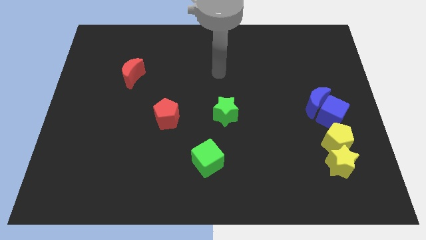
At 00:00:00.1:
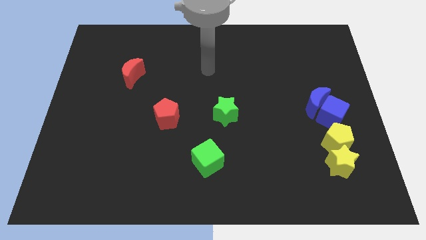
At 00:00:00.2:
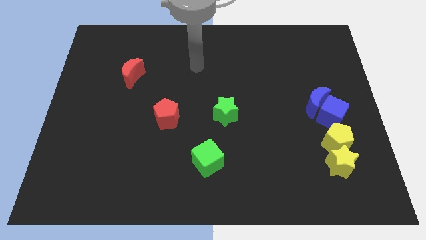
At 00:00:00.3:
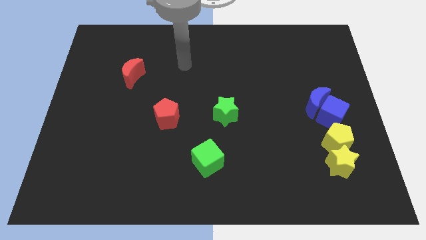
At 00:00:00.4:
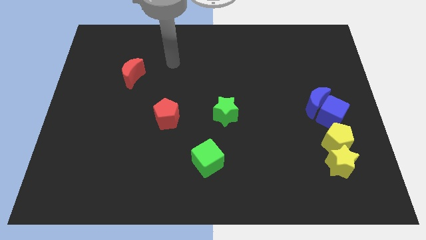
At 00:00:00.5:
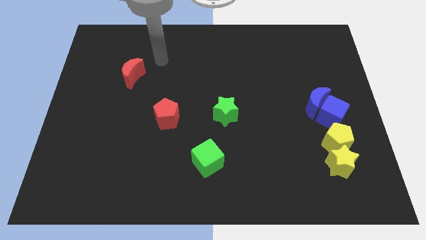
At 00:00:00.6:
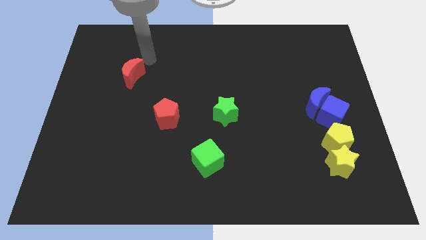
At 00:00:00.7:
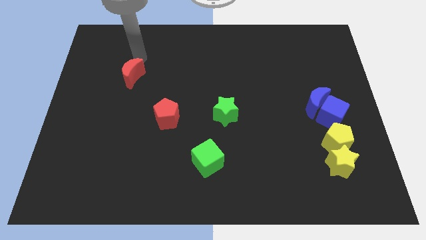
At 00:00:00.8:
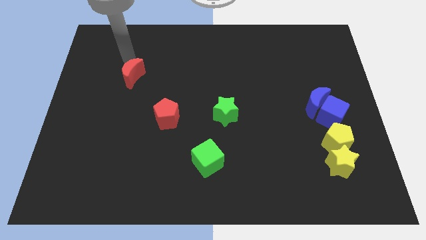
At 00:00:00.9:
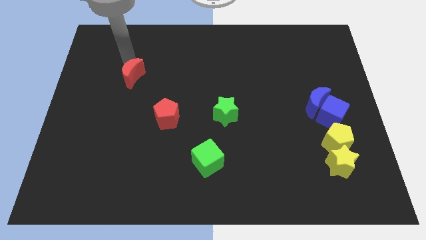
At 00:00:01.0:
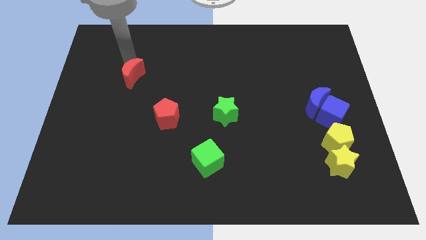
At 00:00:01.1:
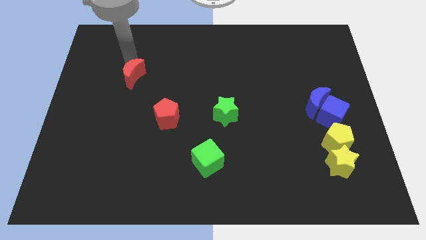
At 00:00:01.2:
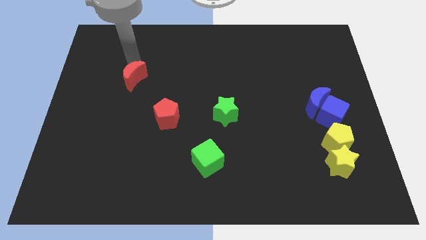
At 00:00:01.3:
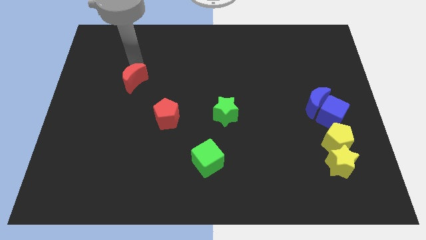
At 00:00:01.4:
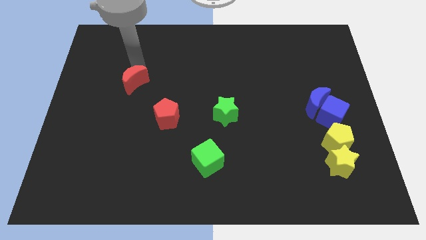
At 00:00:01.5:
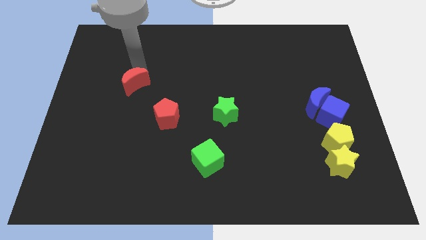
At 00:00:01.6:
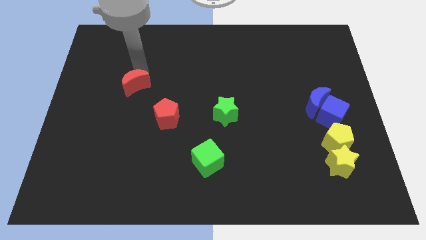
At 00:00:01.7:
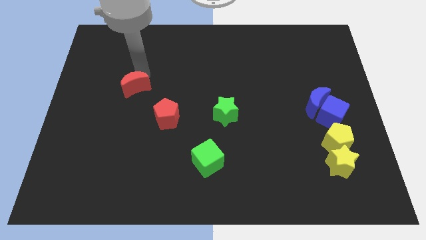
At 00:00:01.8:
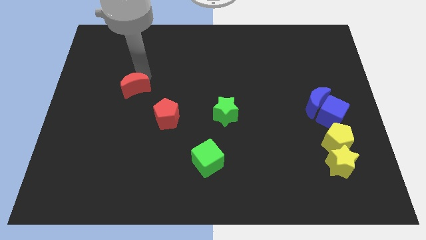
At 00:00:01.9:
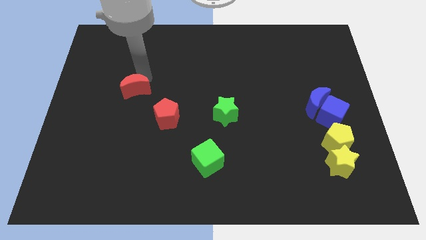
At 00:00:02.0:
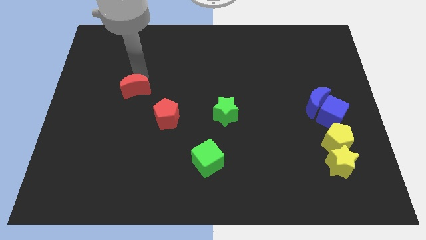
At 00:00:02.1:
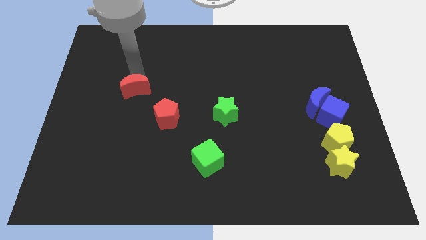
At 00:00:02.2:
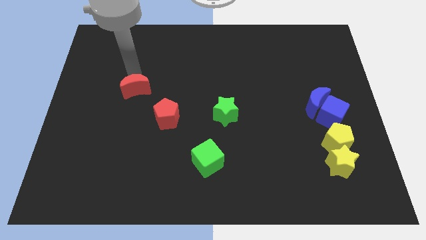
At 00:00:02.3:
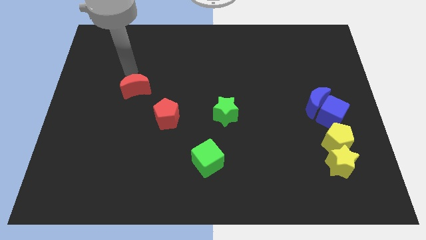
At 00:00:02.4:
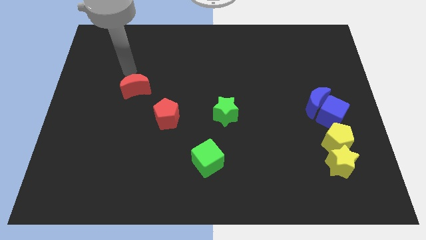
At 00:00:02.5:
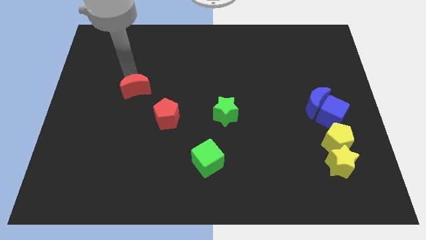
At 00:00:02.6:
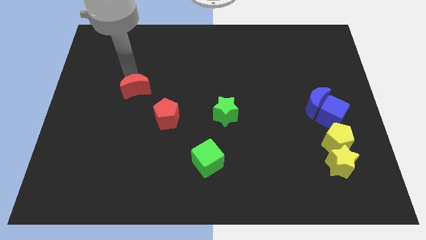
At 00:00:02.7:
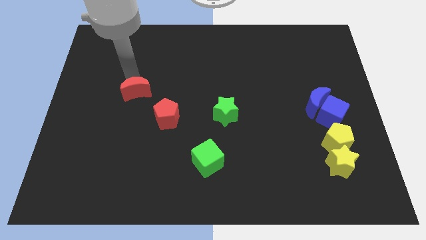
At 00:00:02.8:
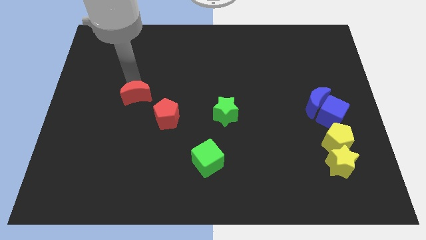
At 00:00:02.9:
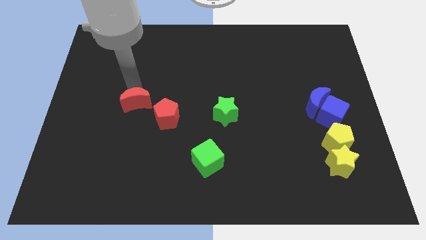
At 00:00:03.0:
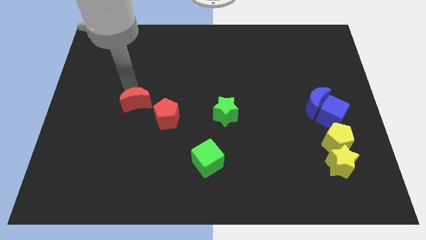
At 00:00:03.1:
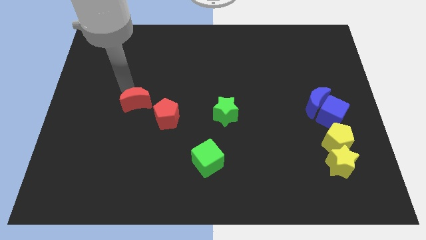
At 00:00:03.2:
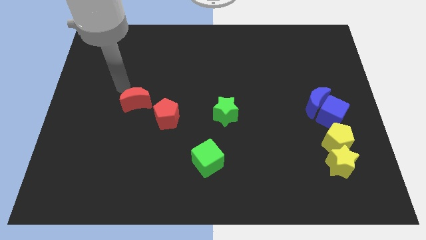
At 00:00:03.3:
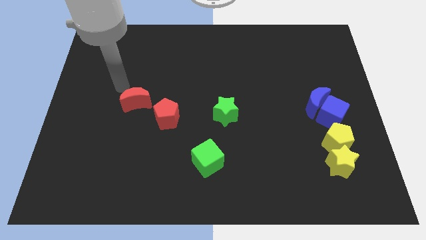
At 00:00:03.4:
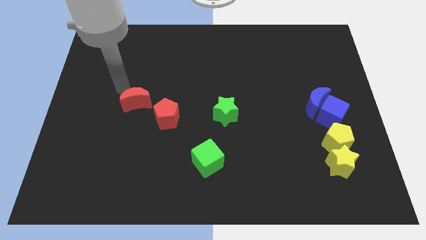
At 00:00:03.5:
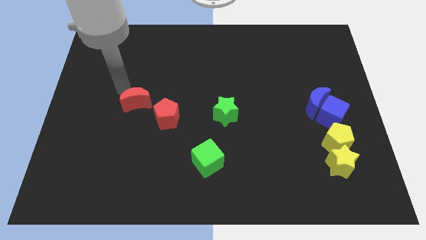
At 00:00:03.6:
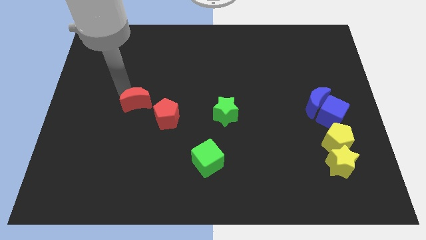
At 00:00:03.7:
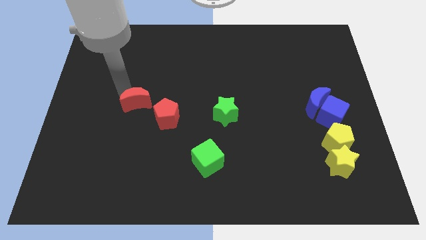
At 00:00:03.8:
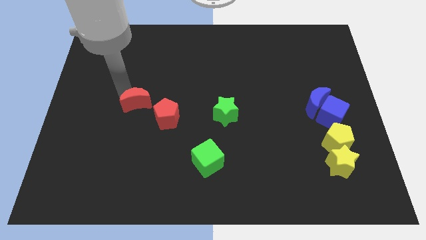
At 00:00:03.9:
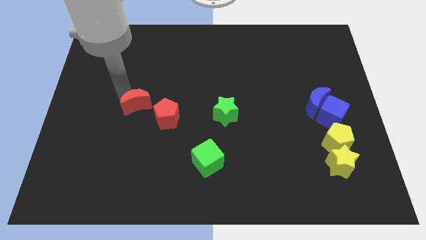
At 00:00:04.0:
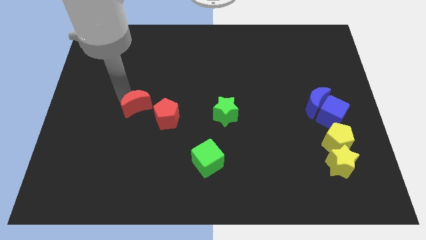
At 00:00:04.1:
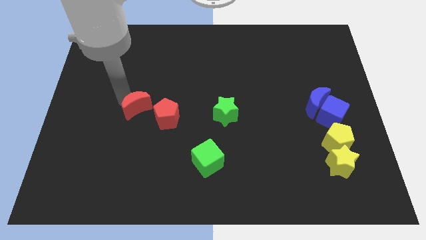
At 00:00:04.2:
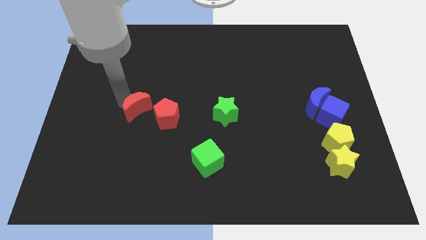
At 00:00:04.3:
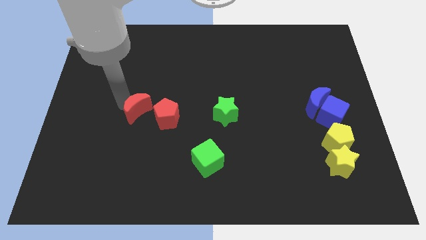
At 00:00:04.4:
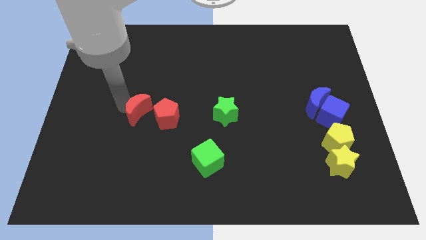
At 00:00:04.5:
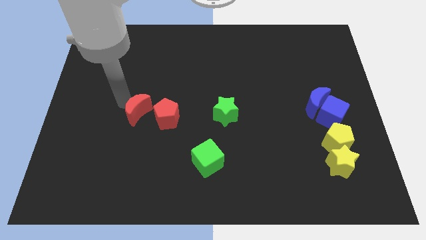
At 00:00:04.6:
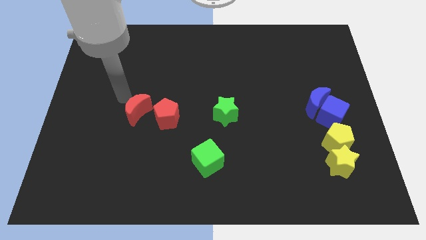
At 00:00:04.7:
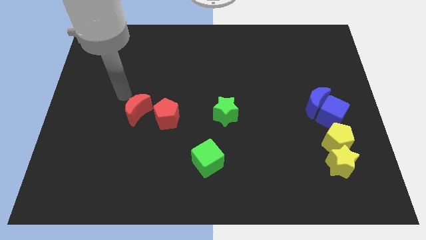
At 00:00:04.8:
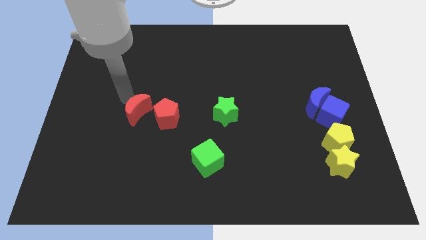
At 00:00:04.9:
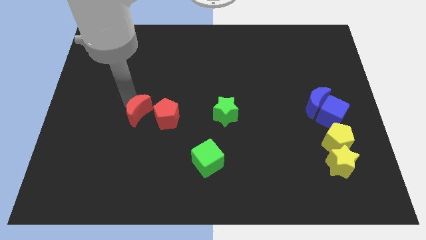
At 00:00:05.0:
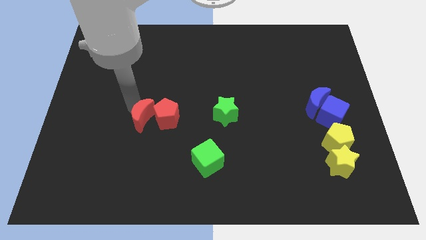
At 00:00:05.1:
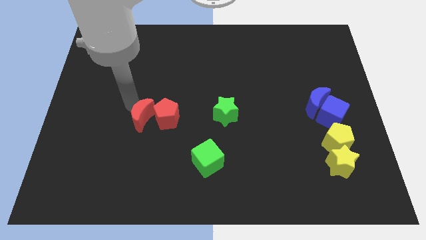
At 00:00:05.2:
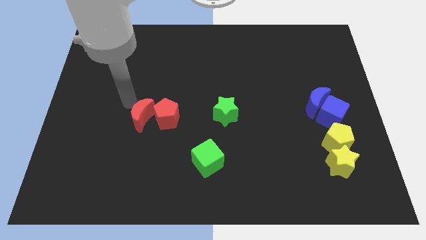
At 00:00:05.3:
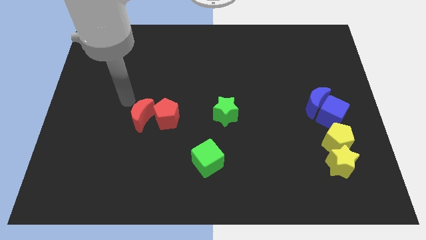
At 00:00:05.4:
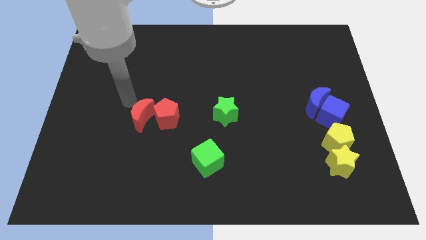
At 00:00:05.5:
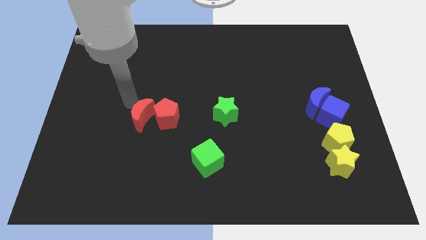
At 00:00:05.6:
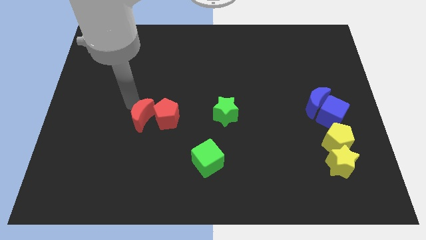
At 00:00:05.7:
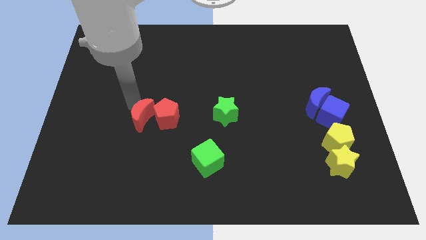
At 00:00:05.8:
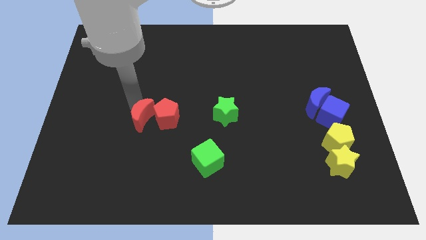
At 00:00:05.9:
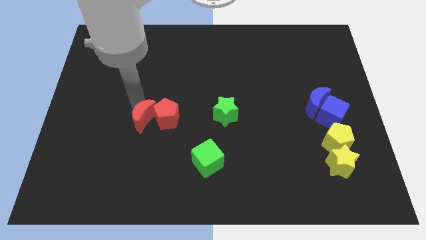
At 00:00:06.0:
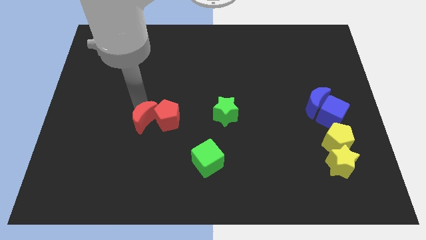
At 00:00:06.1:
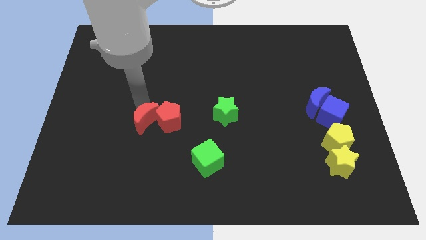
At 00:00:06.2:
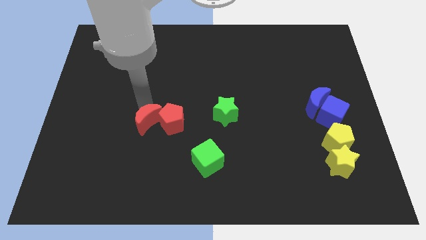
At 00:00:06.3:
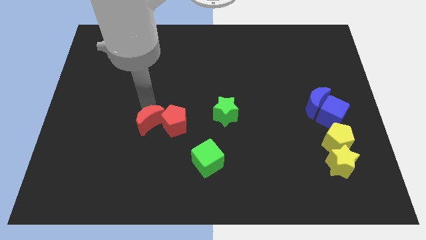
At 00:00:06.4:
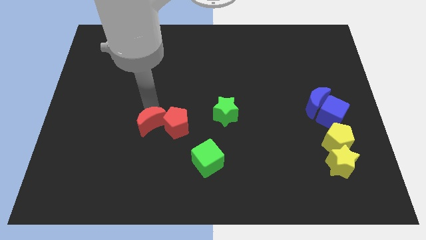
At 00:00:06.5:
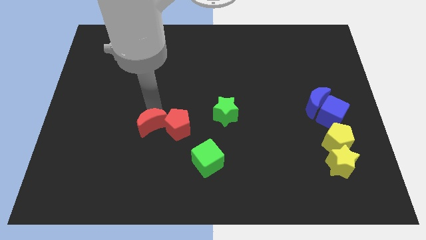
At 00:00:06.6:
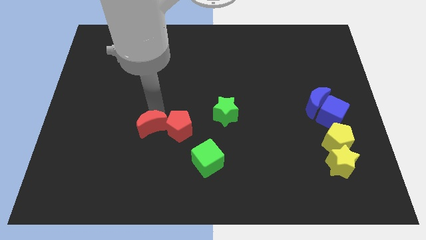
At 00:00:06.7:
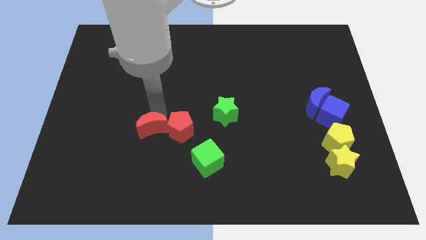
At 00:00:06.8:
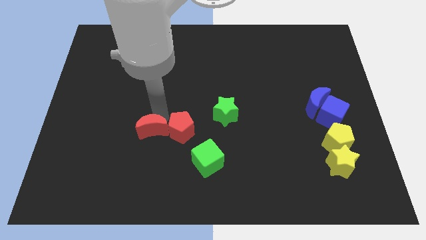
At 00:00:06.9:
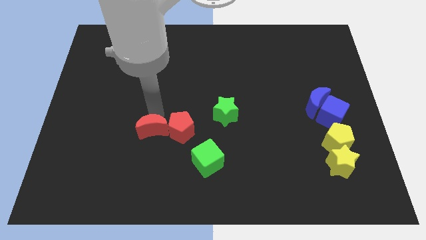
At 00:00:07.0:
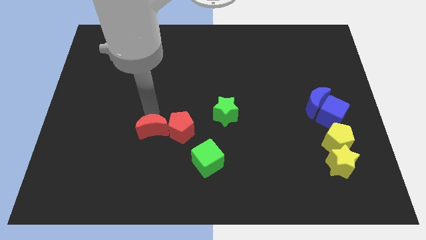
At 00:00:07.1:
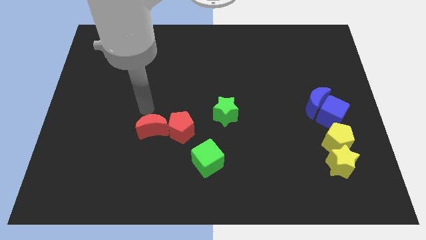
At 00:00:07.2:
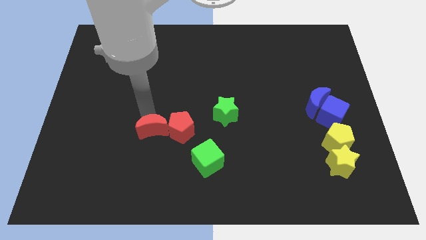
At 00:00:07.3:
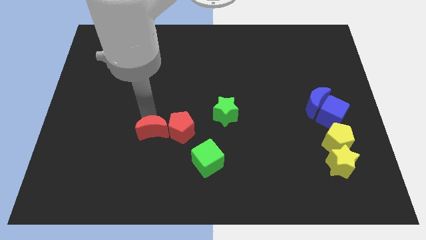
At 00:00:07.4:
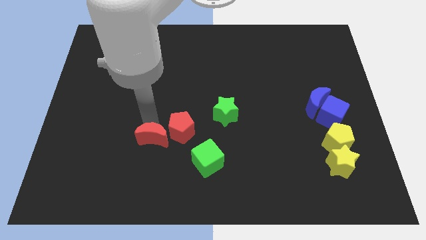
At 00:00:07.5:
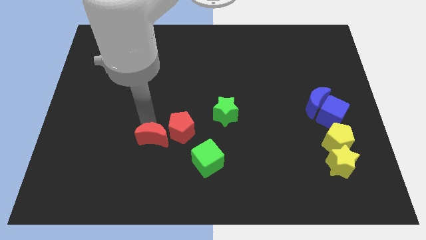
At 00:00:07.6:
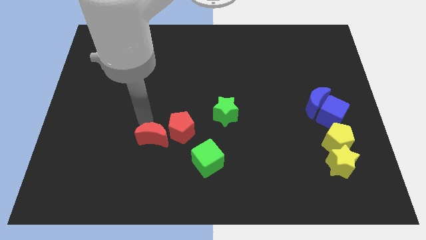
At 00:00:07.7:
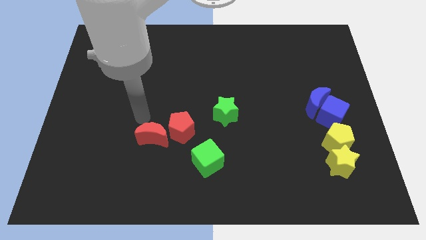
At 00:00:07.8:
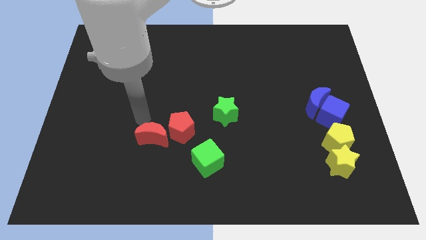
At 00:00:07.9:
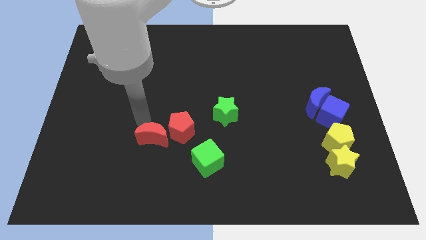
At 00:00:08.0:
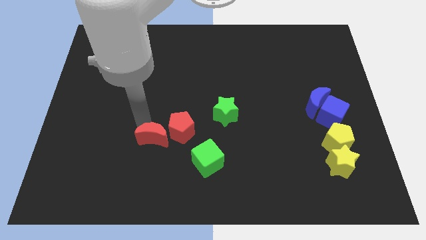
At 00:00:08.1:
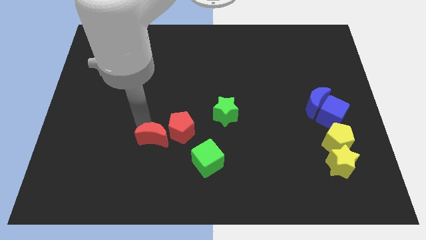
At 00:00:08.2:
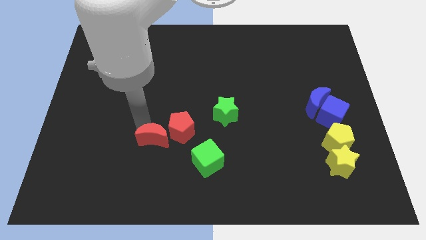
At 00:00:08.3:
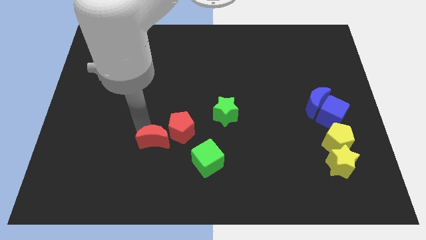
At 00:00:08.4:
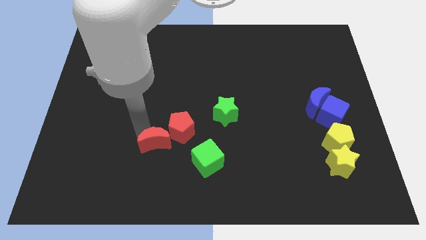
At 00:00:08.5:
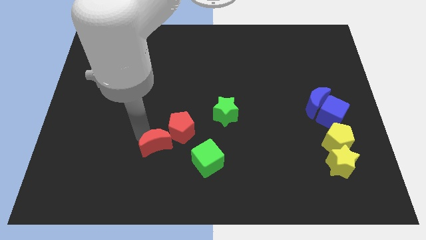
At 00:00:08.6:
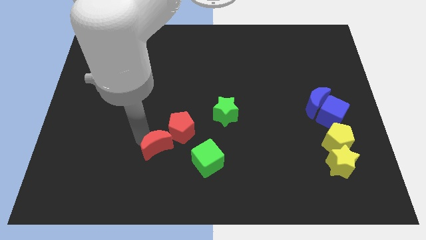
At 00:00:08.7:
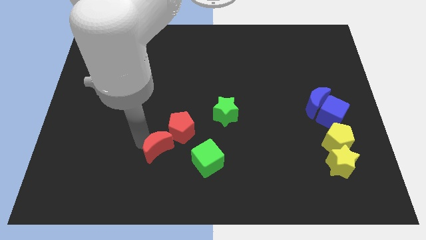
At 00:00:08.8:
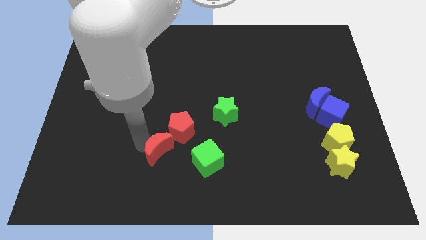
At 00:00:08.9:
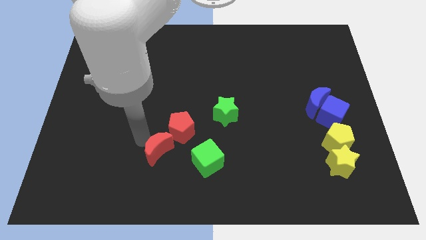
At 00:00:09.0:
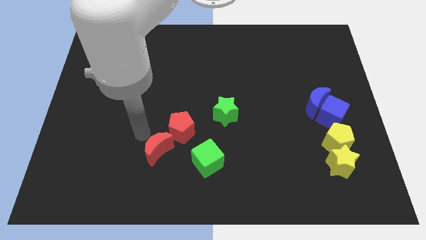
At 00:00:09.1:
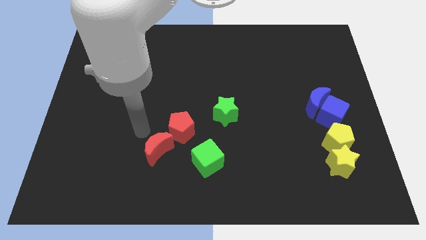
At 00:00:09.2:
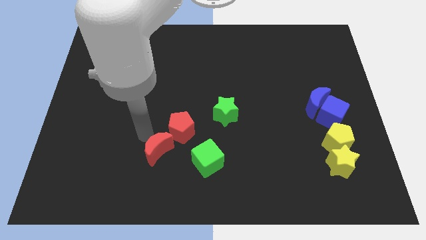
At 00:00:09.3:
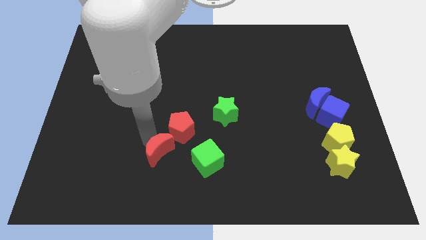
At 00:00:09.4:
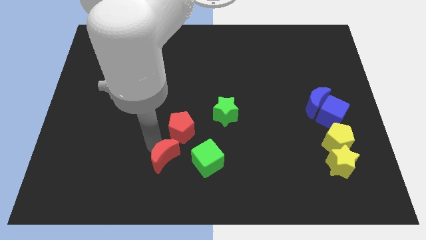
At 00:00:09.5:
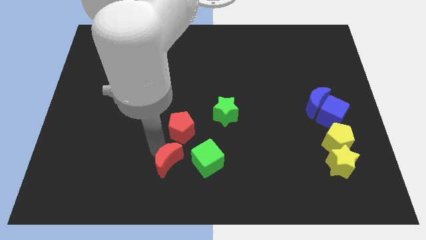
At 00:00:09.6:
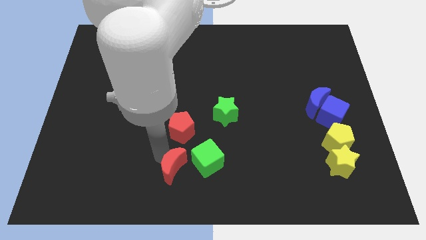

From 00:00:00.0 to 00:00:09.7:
slide the red moon to the bottom
